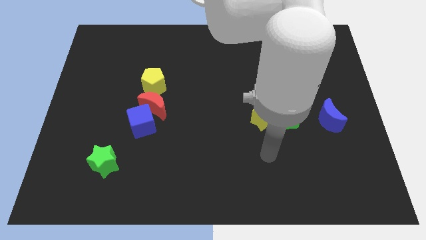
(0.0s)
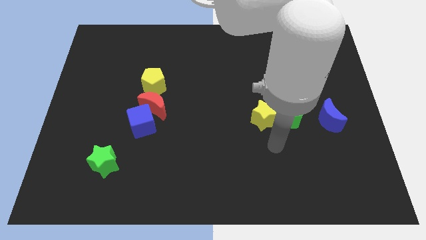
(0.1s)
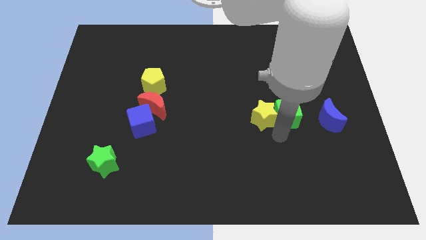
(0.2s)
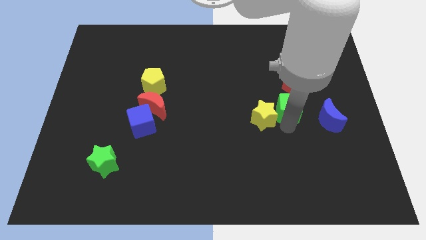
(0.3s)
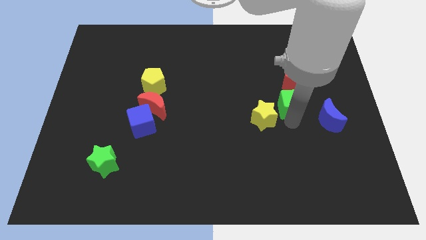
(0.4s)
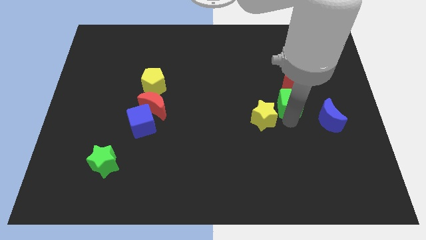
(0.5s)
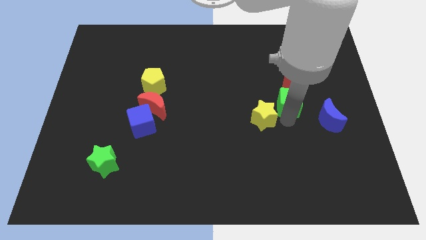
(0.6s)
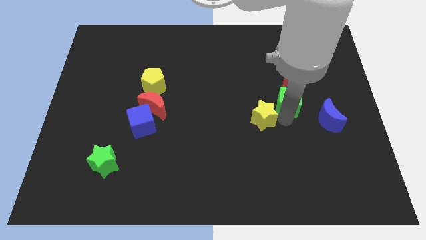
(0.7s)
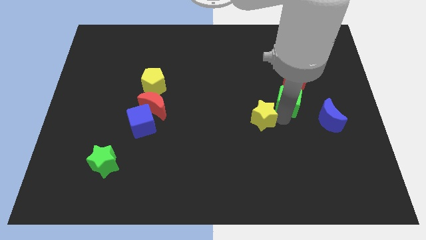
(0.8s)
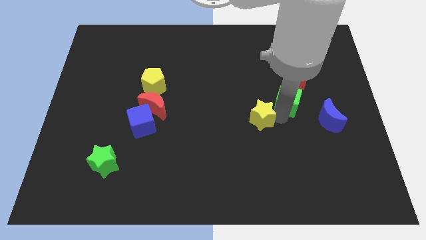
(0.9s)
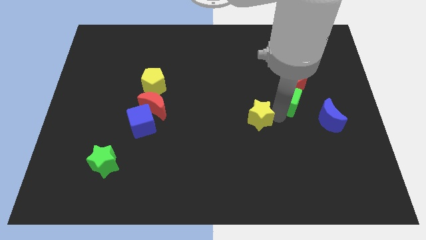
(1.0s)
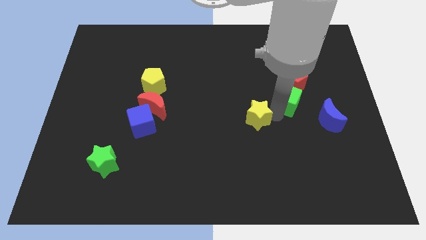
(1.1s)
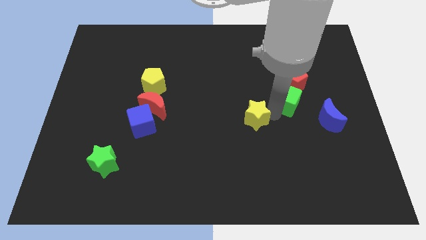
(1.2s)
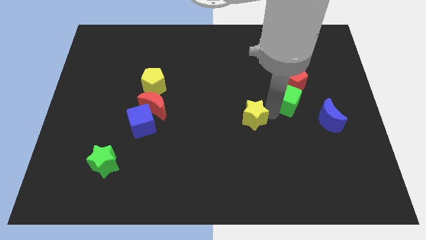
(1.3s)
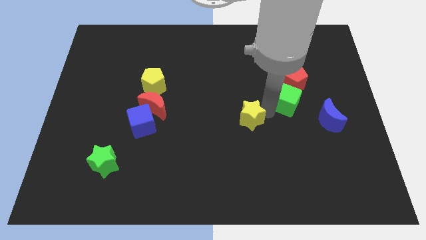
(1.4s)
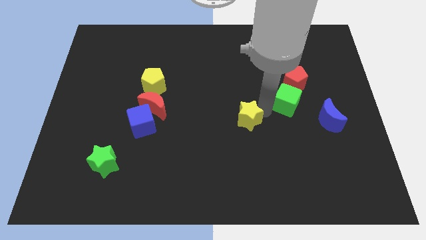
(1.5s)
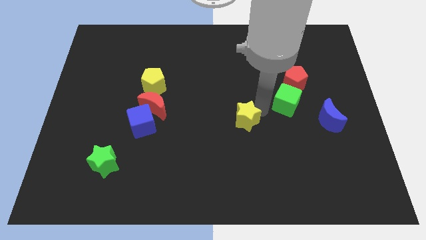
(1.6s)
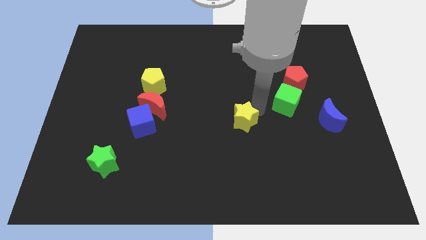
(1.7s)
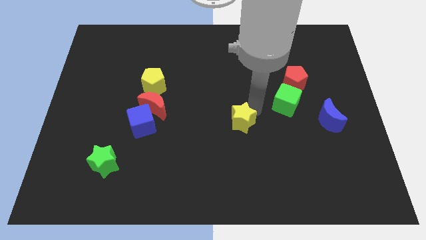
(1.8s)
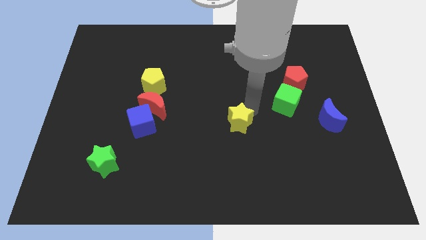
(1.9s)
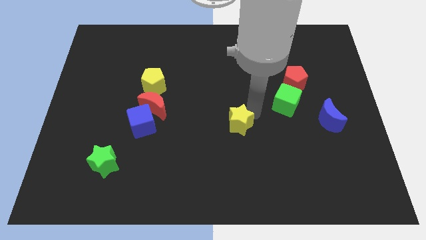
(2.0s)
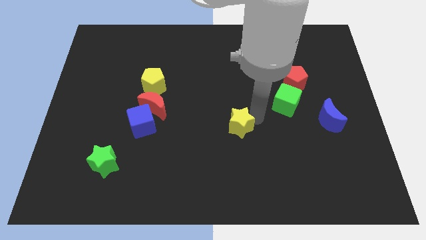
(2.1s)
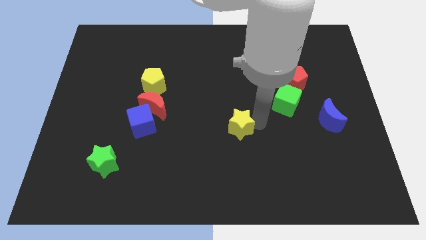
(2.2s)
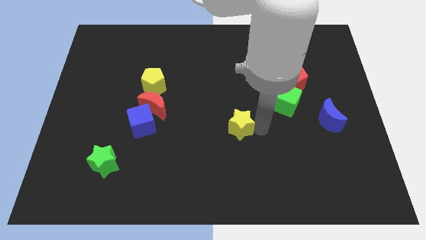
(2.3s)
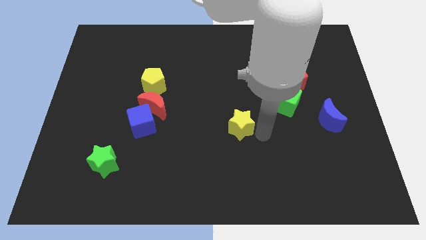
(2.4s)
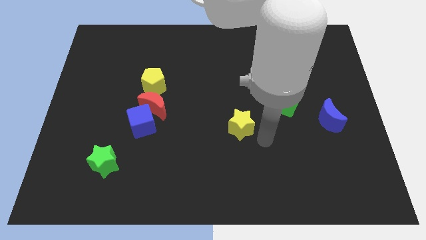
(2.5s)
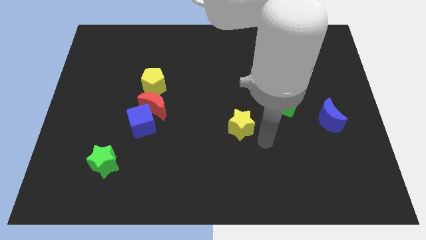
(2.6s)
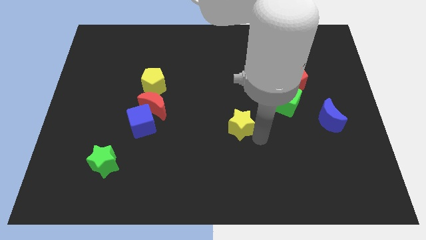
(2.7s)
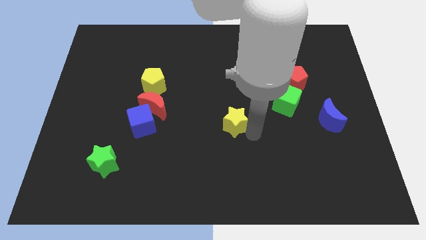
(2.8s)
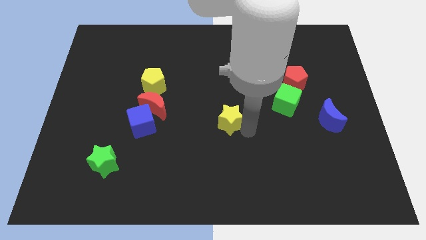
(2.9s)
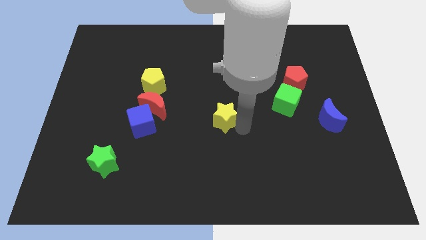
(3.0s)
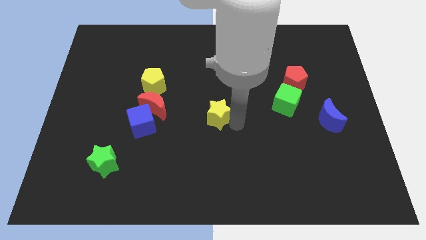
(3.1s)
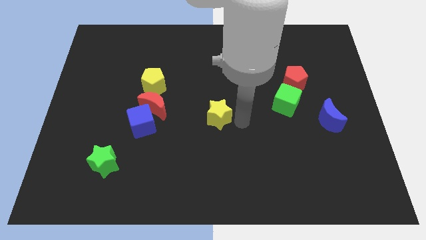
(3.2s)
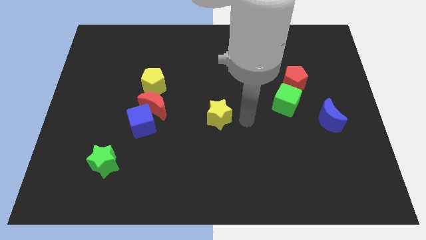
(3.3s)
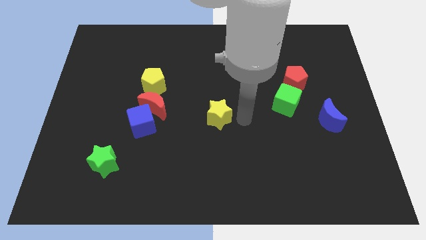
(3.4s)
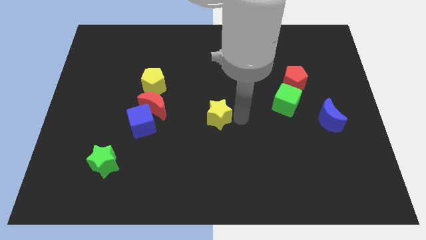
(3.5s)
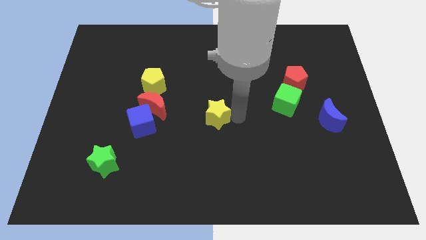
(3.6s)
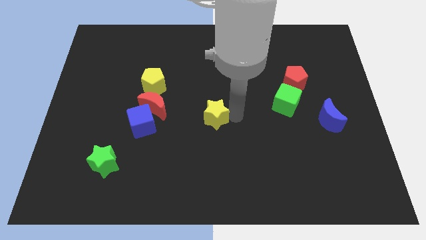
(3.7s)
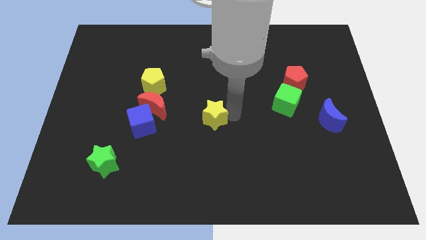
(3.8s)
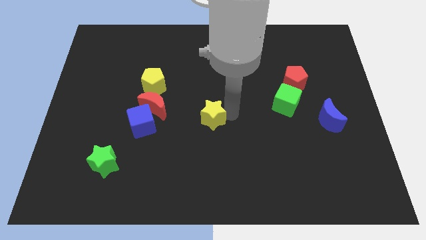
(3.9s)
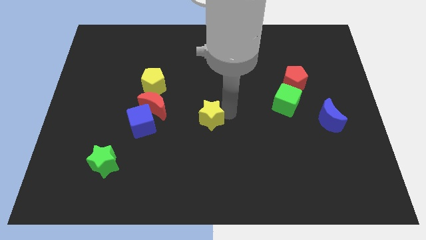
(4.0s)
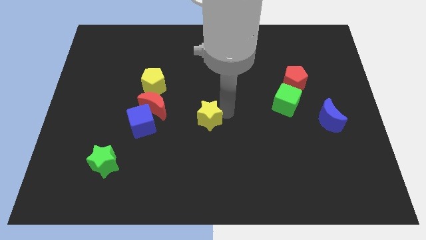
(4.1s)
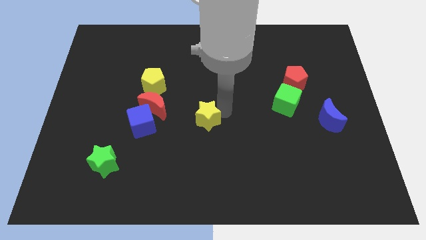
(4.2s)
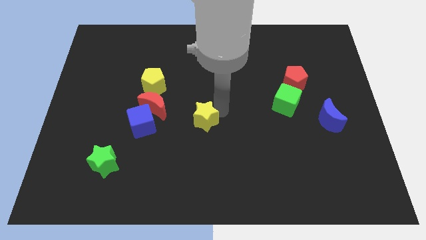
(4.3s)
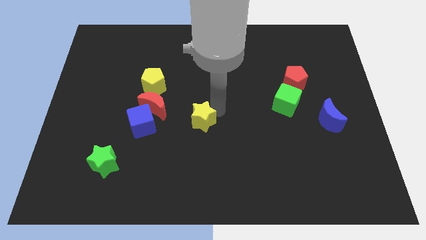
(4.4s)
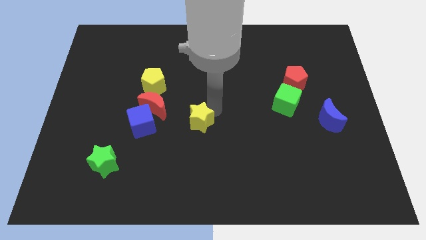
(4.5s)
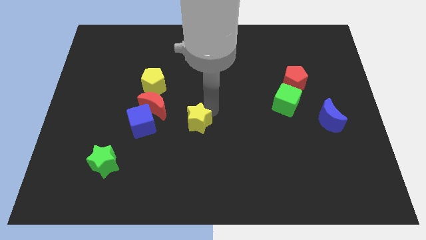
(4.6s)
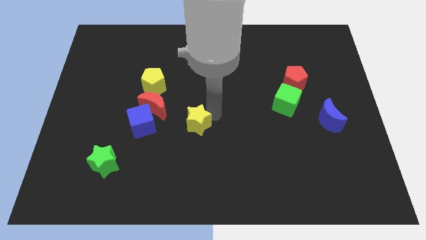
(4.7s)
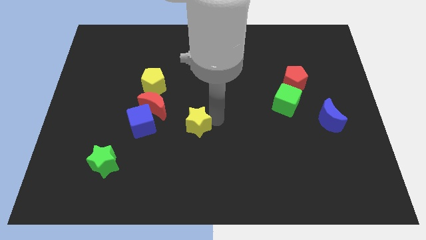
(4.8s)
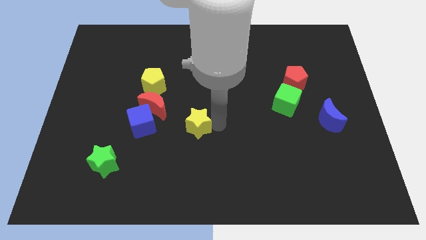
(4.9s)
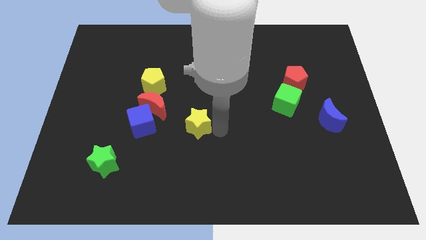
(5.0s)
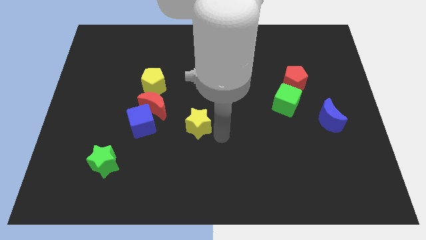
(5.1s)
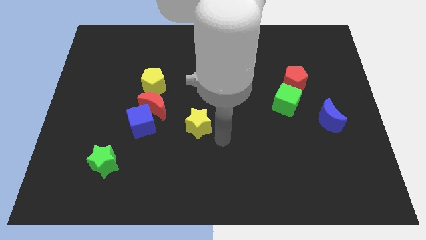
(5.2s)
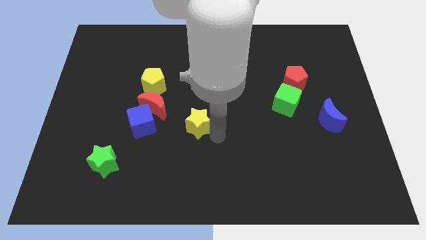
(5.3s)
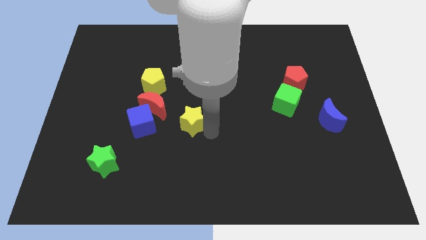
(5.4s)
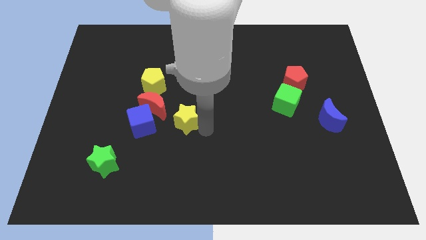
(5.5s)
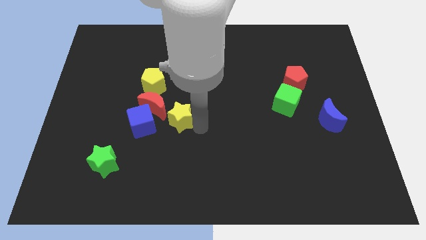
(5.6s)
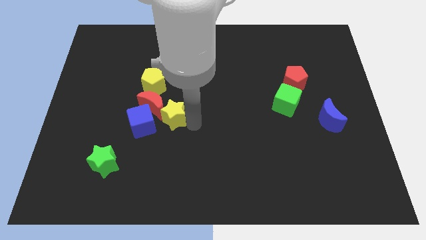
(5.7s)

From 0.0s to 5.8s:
slide the yellow star close to the red moon

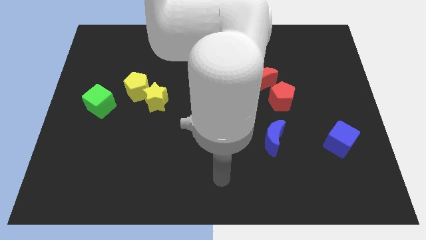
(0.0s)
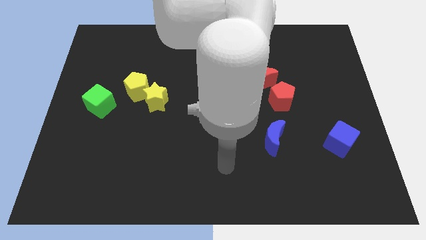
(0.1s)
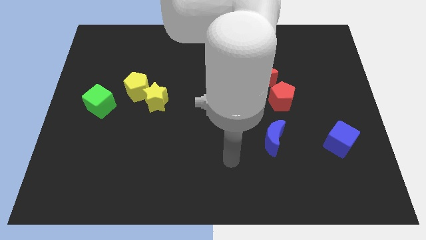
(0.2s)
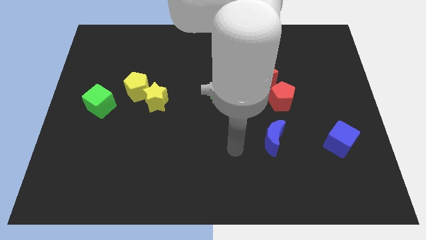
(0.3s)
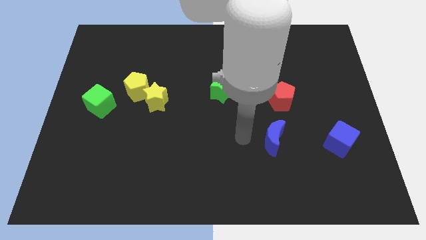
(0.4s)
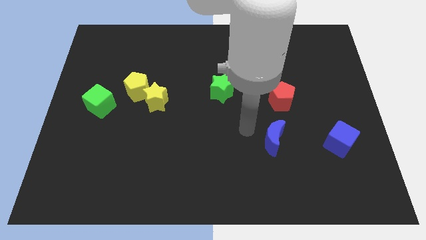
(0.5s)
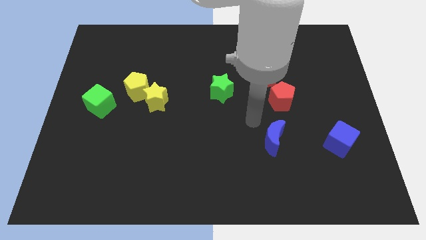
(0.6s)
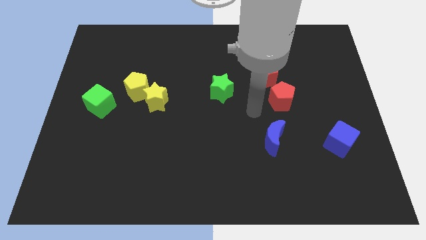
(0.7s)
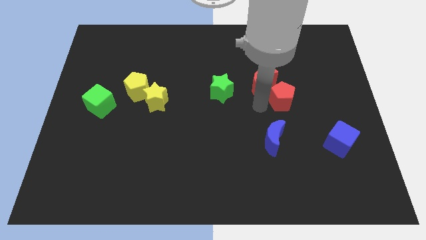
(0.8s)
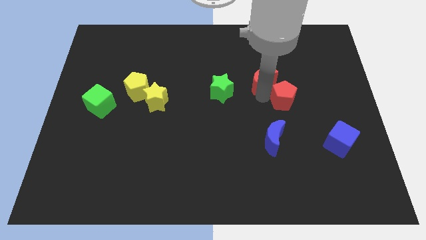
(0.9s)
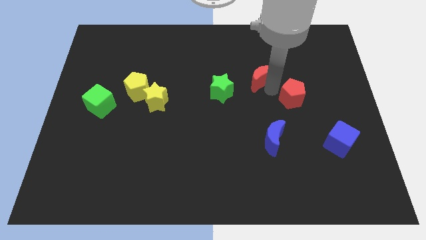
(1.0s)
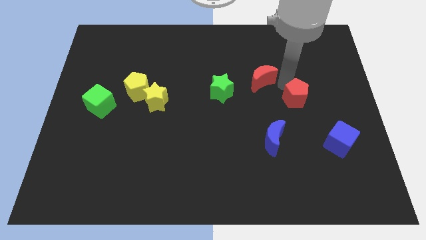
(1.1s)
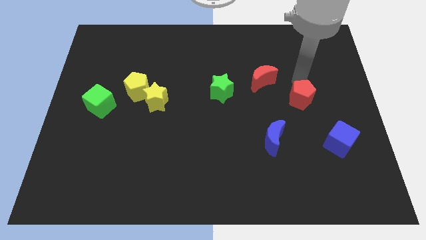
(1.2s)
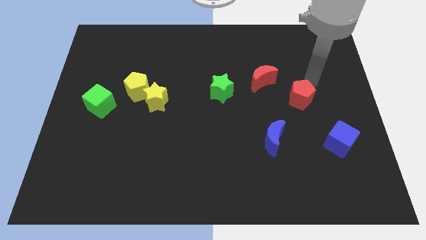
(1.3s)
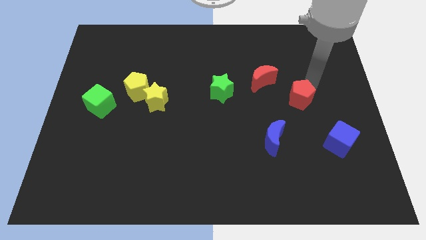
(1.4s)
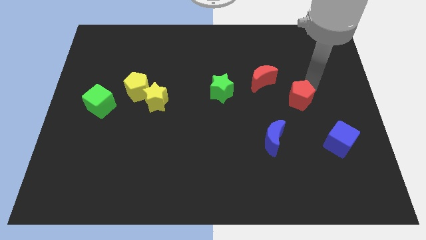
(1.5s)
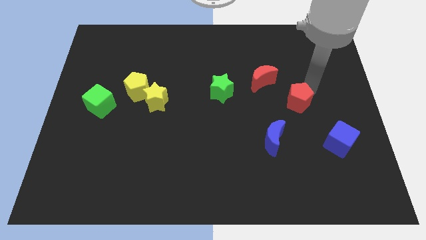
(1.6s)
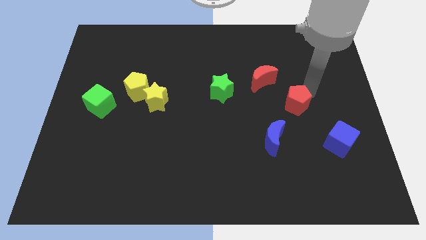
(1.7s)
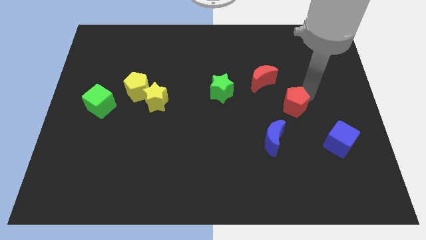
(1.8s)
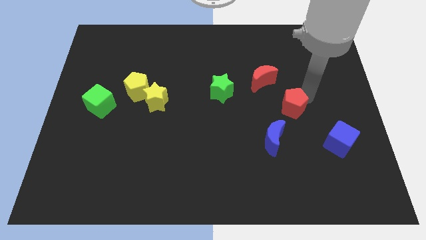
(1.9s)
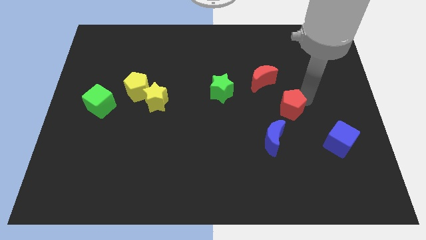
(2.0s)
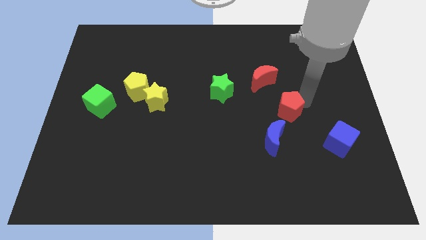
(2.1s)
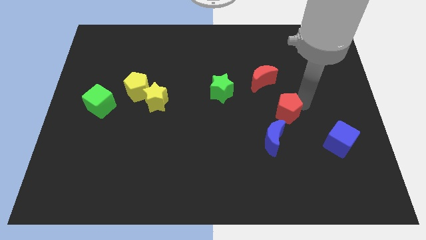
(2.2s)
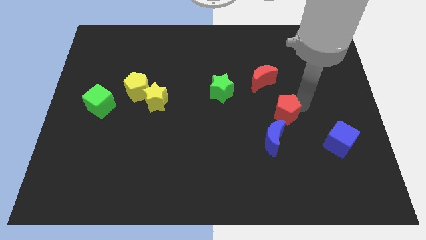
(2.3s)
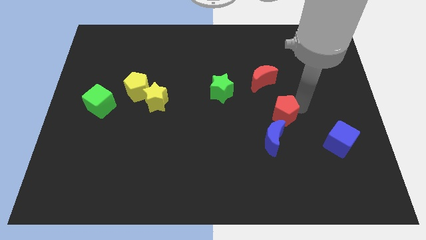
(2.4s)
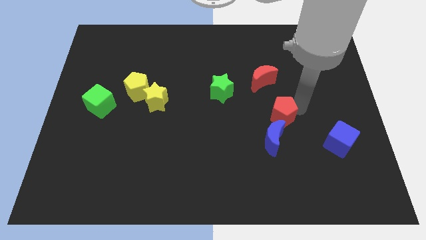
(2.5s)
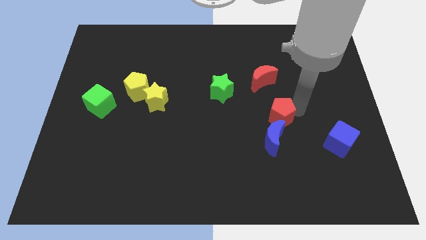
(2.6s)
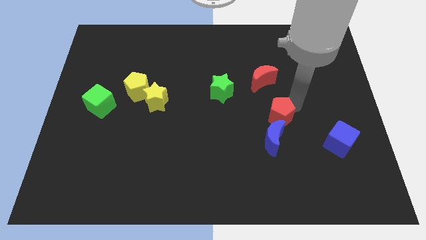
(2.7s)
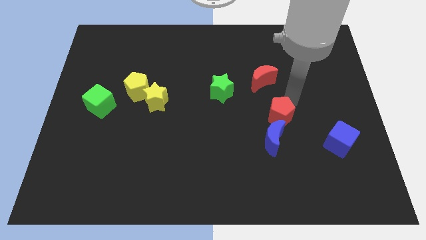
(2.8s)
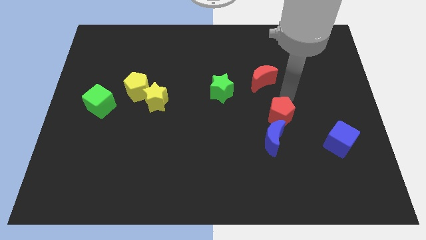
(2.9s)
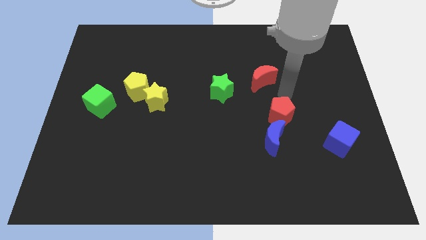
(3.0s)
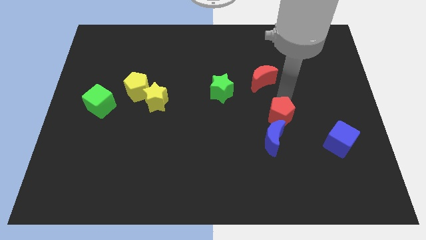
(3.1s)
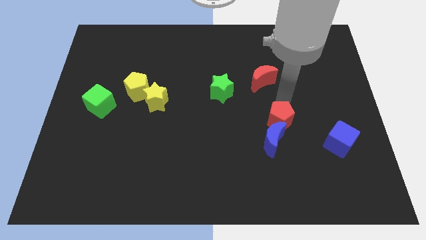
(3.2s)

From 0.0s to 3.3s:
push the red pentagon towards the blue moon
